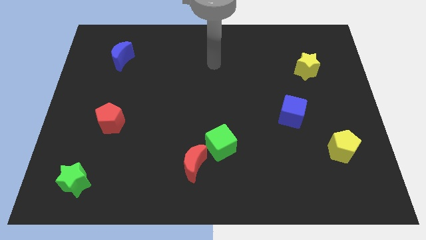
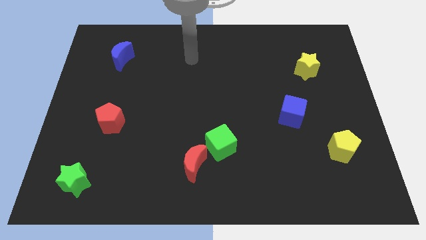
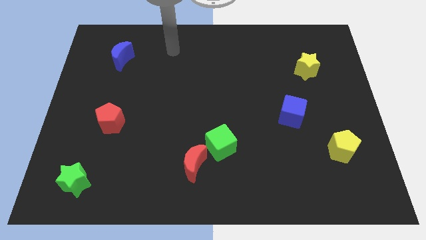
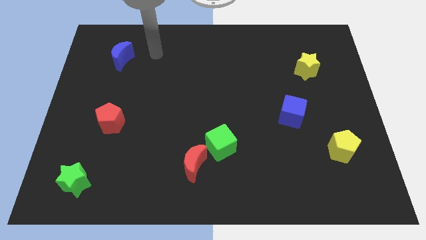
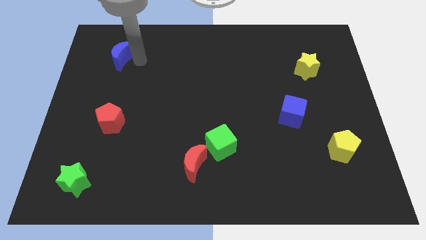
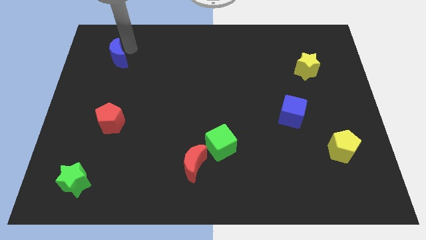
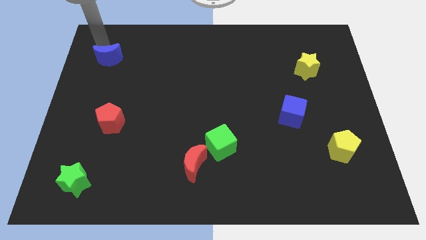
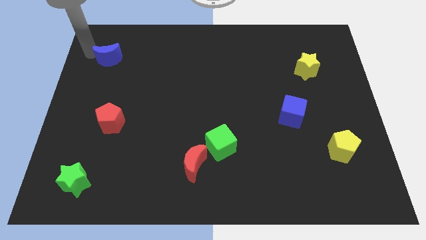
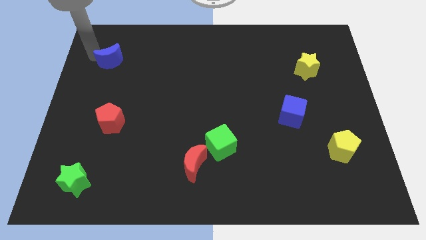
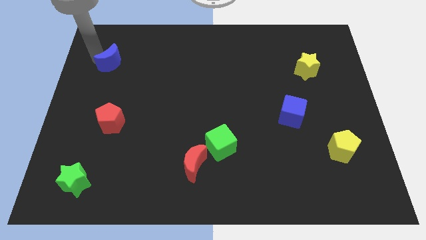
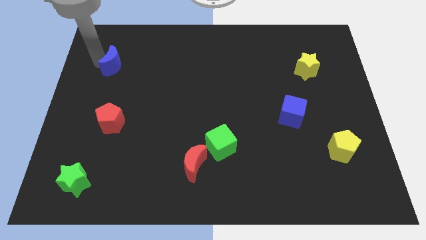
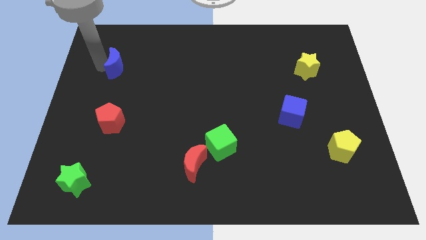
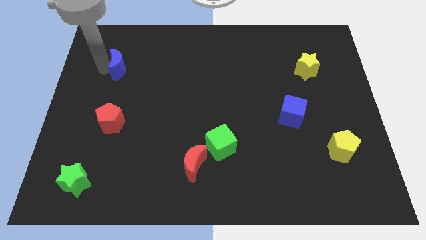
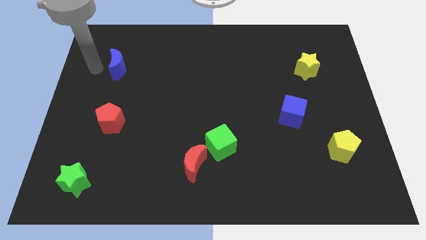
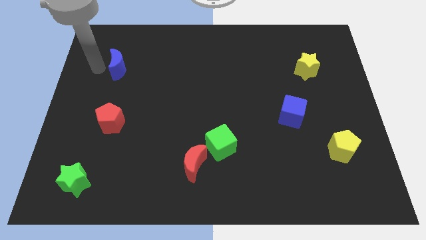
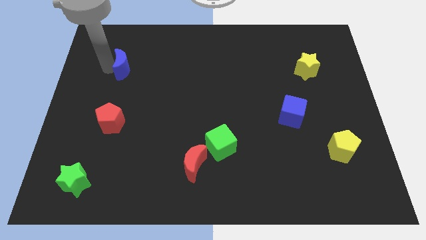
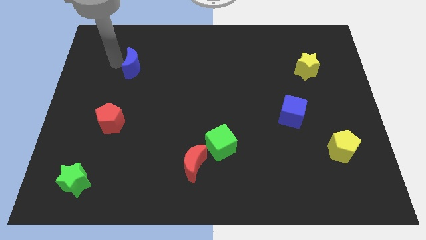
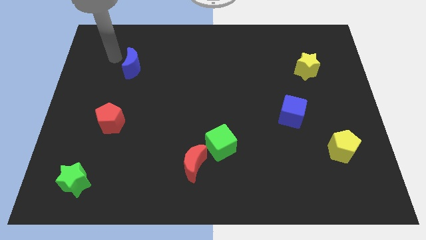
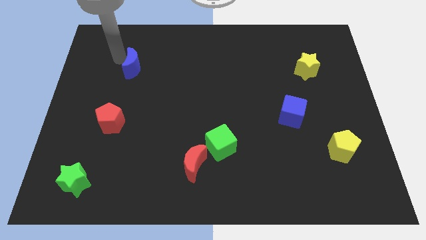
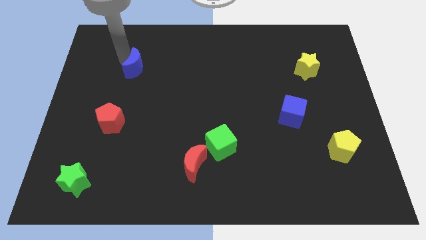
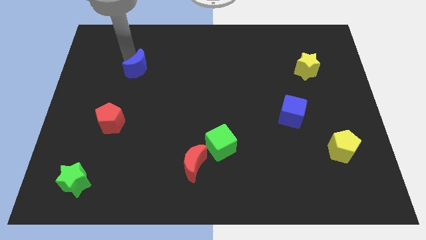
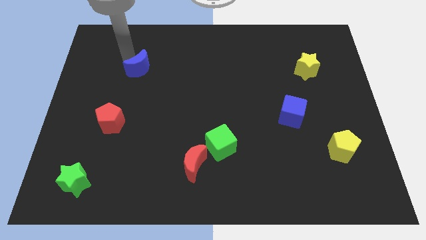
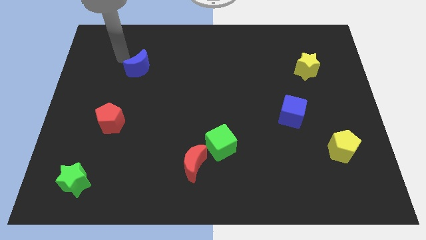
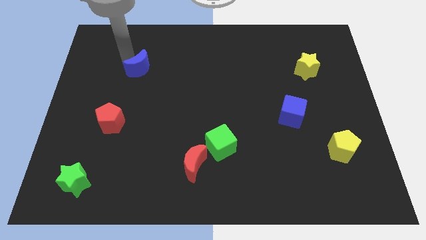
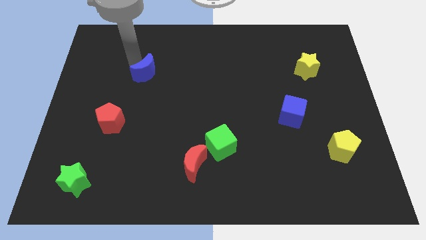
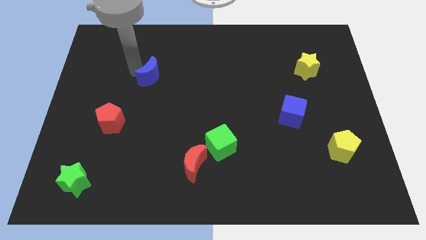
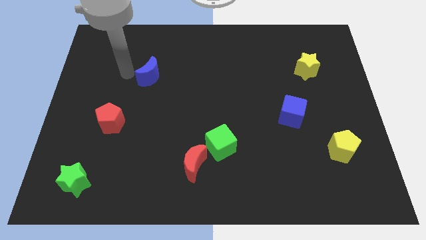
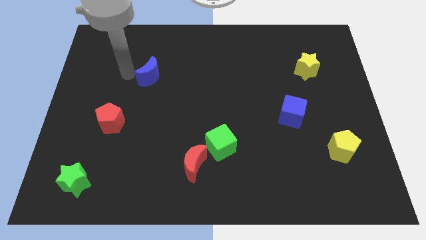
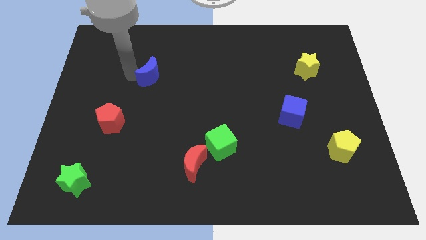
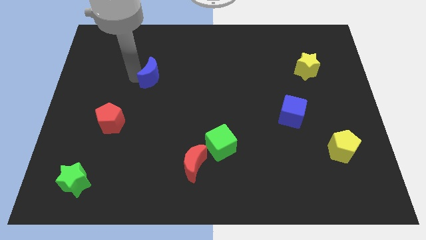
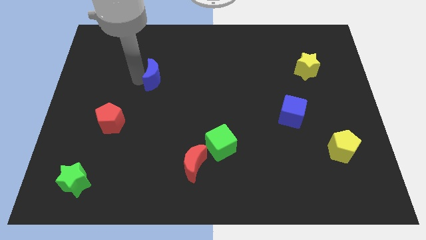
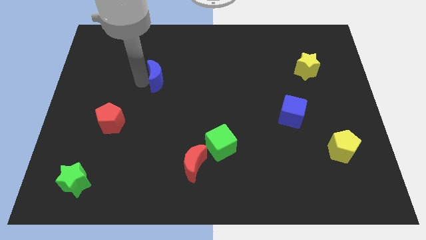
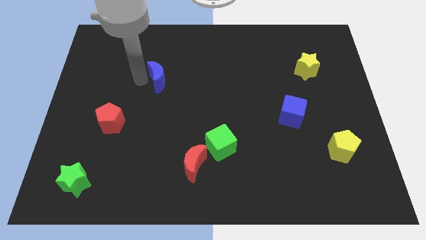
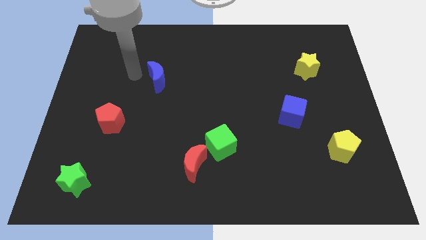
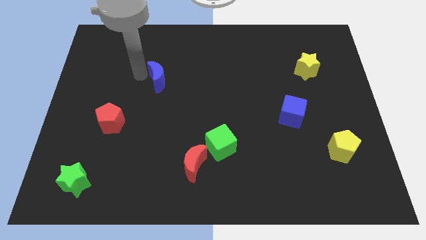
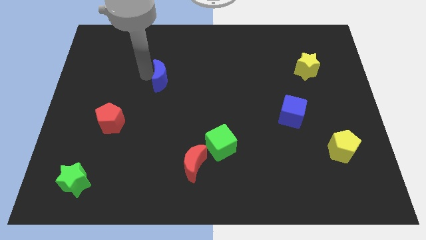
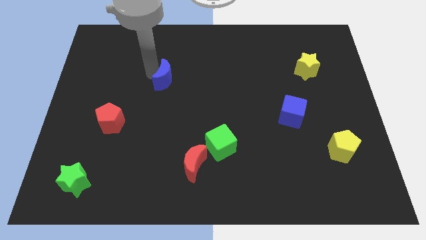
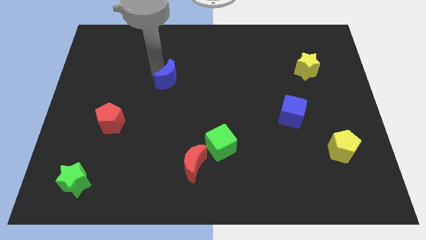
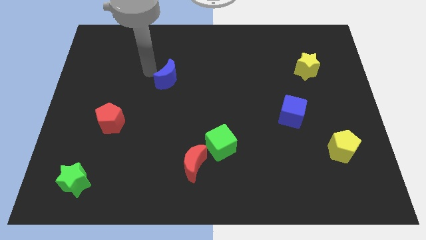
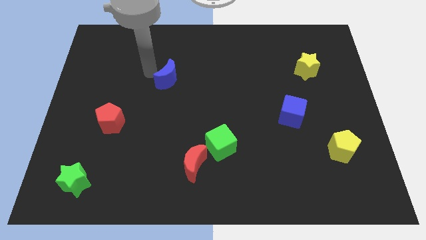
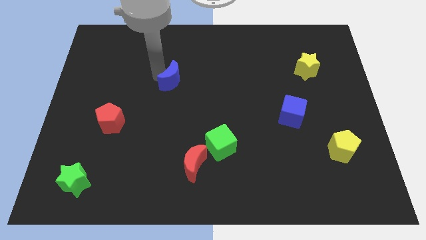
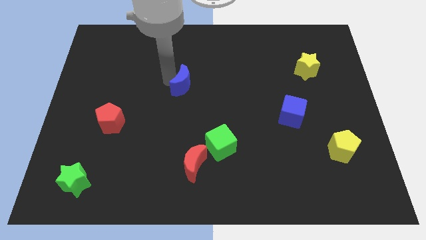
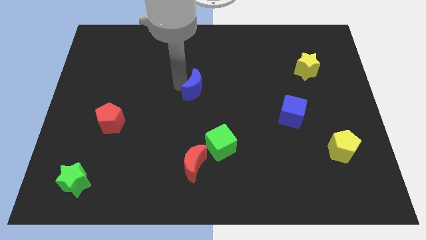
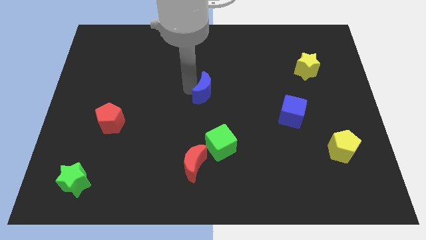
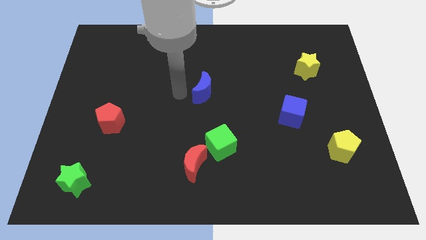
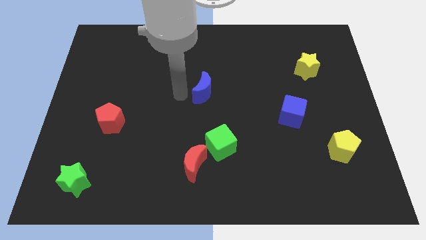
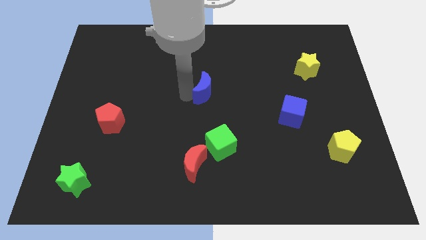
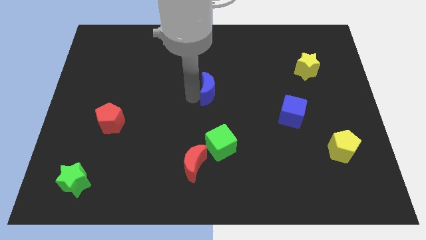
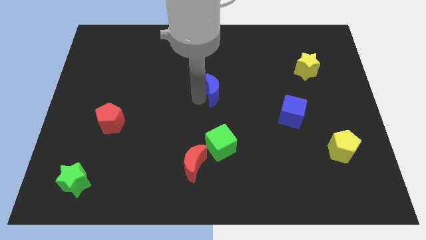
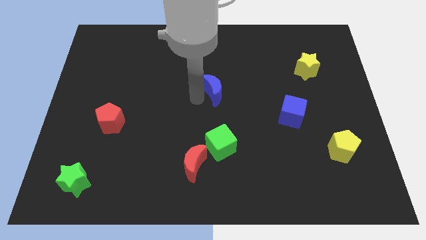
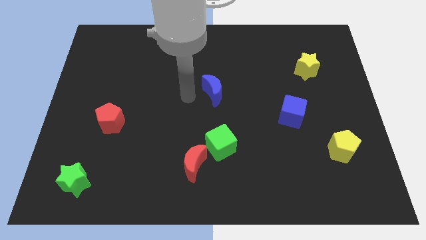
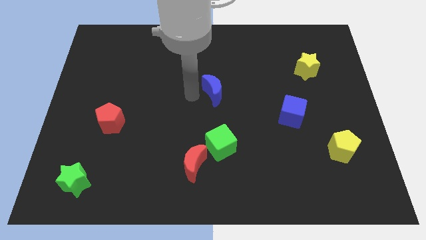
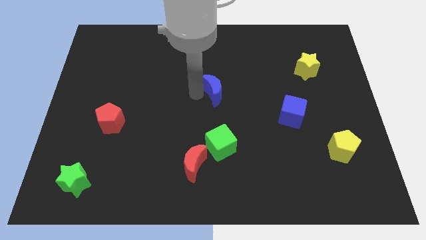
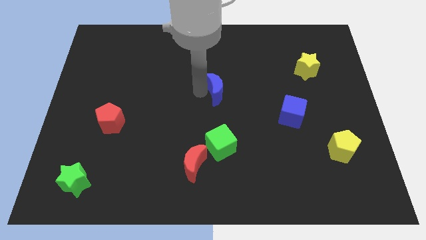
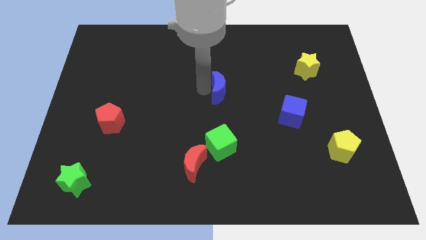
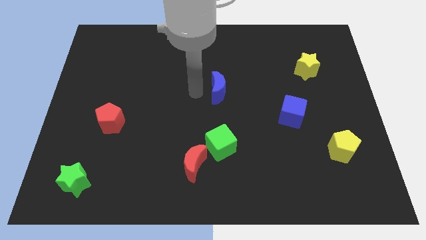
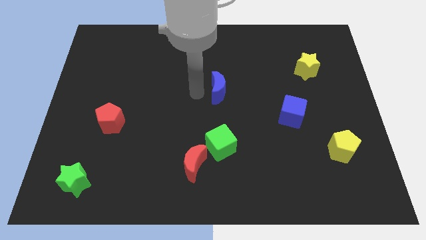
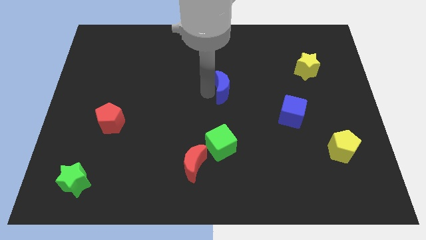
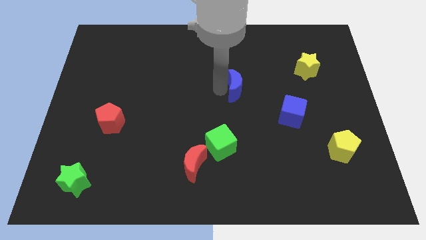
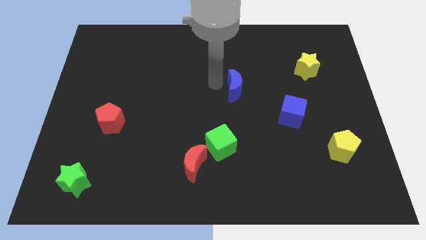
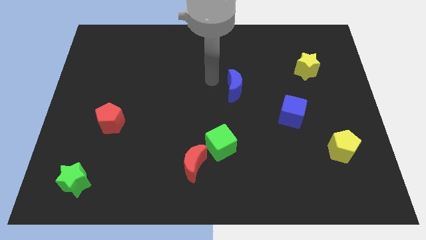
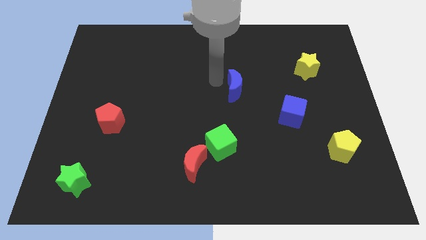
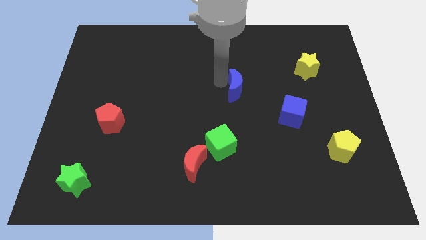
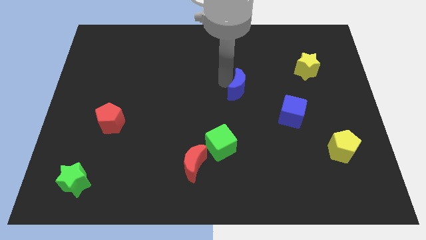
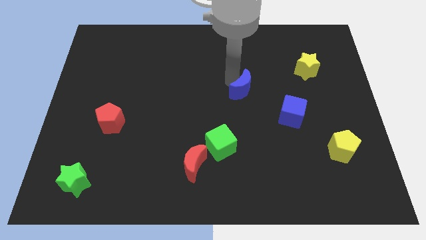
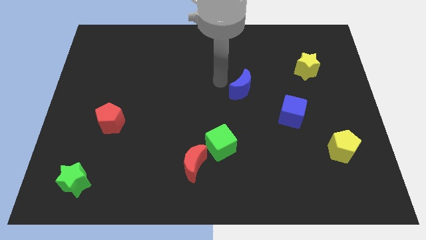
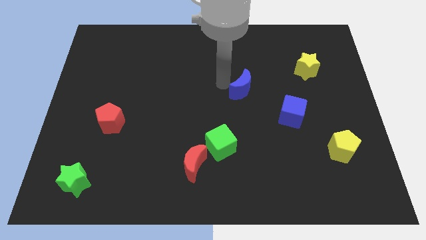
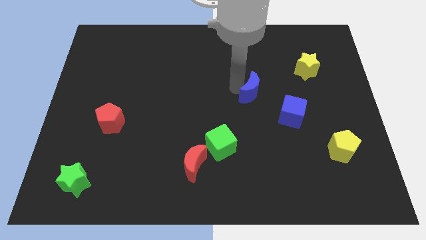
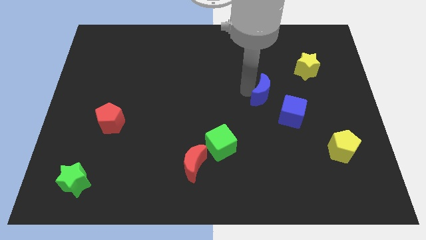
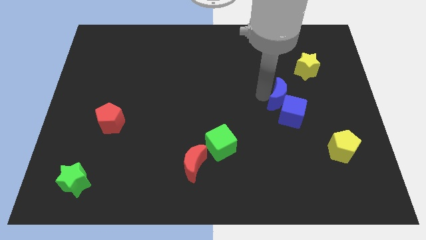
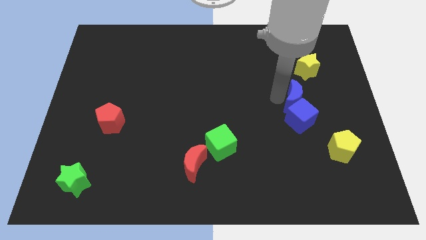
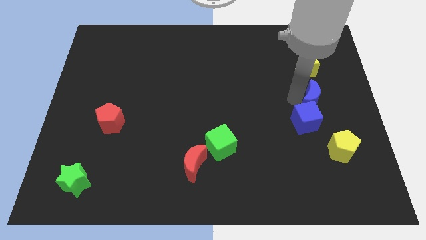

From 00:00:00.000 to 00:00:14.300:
slide the blue moon to the top of the yellow pentagon
